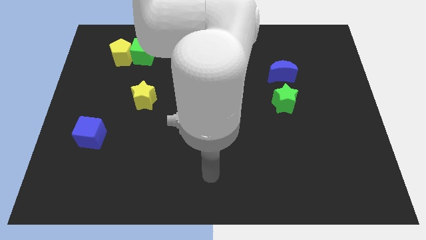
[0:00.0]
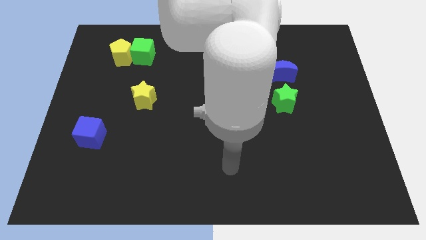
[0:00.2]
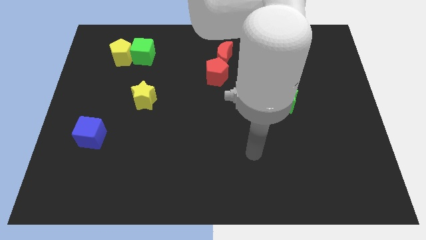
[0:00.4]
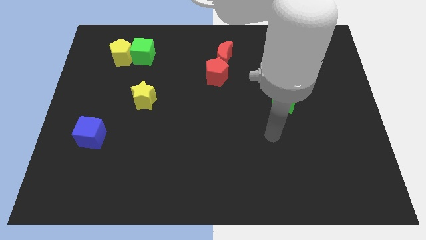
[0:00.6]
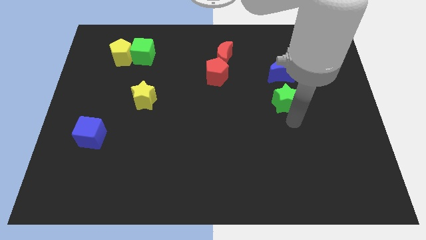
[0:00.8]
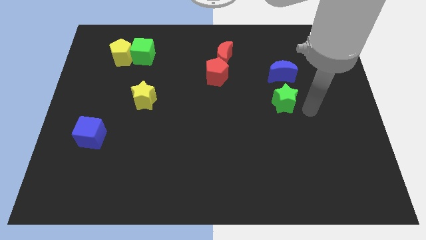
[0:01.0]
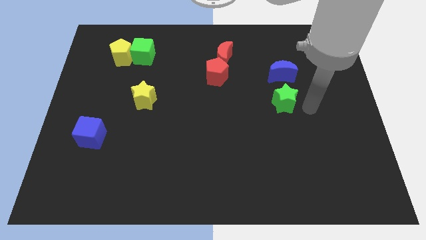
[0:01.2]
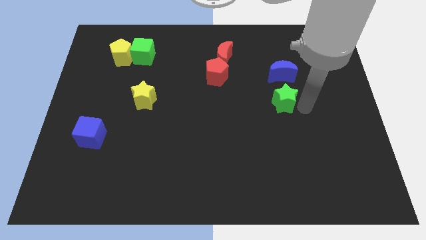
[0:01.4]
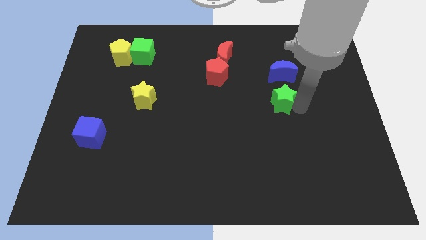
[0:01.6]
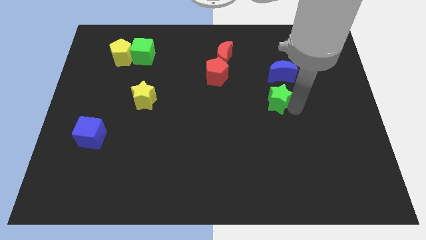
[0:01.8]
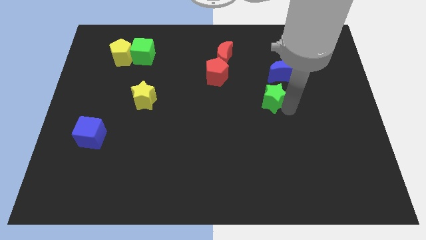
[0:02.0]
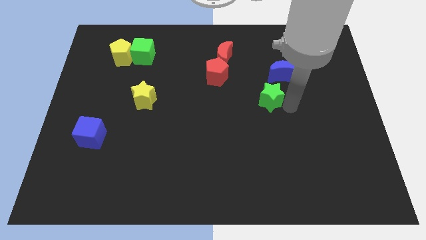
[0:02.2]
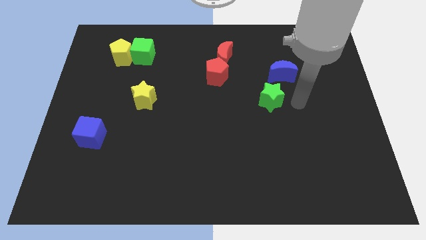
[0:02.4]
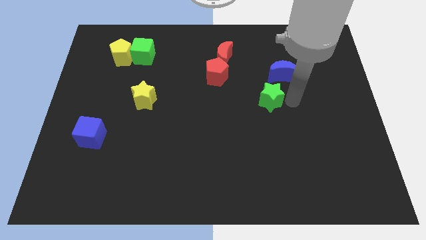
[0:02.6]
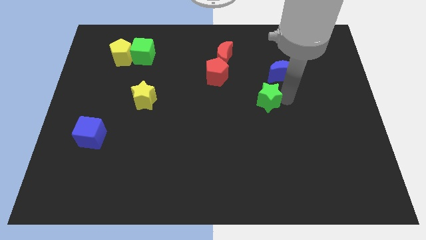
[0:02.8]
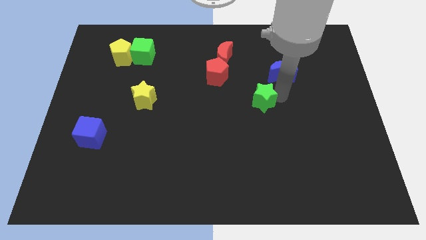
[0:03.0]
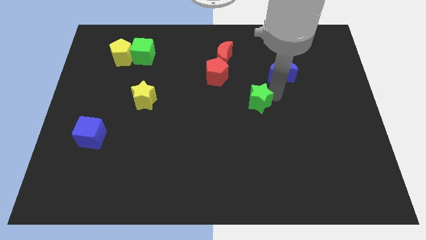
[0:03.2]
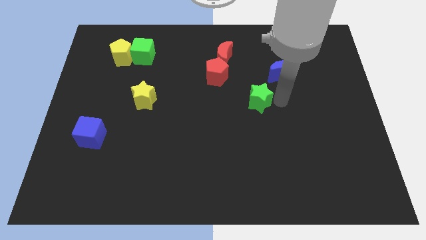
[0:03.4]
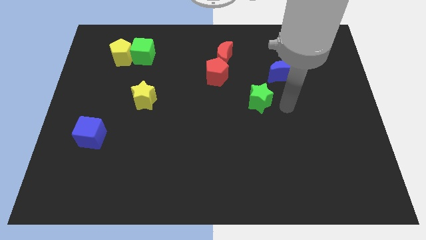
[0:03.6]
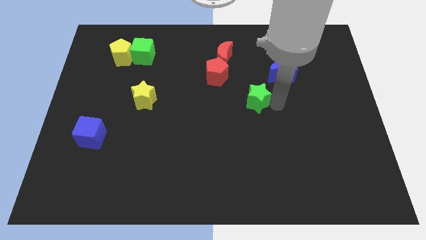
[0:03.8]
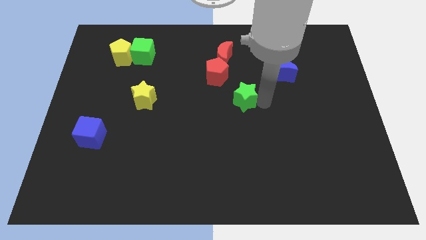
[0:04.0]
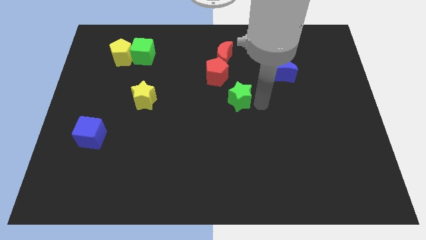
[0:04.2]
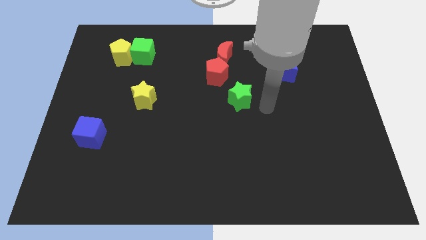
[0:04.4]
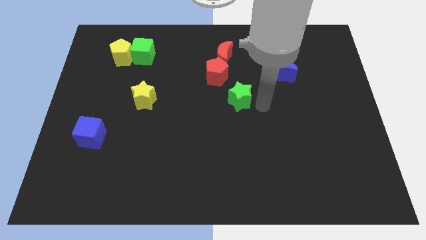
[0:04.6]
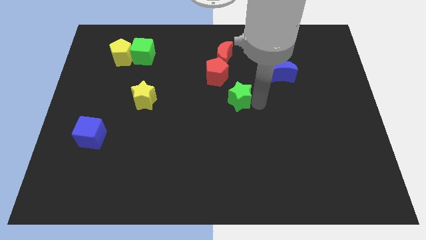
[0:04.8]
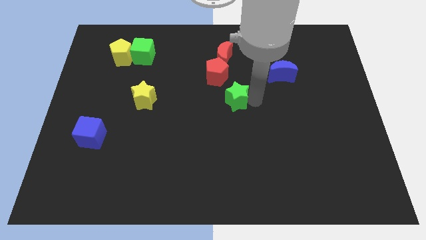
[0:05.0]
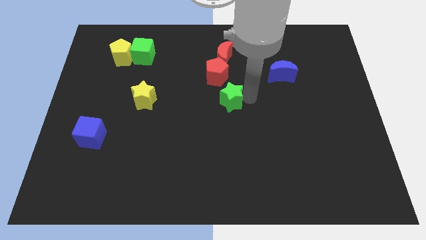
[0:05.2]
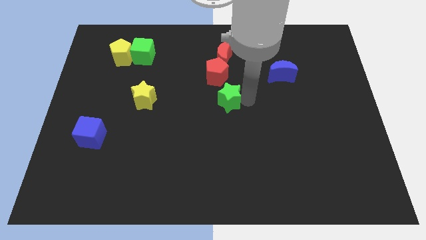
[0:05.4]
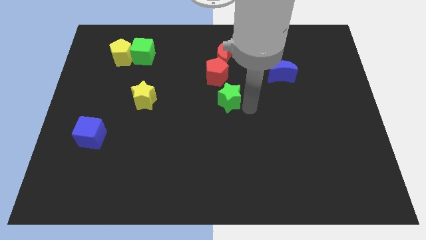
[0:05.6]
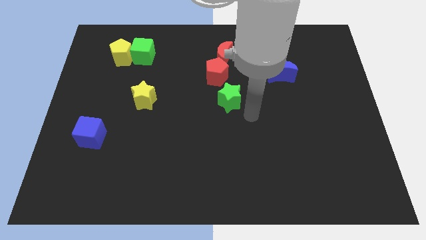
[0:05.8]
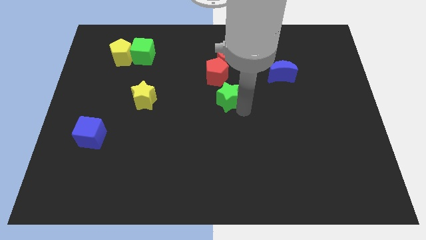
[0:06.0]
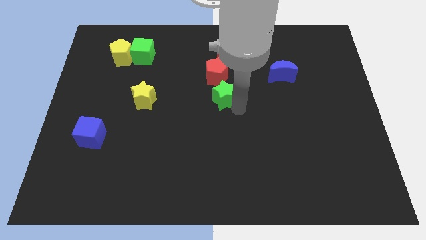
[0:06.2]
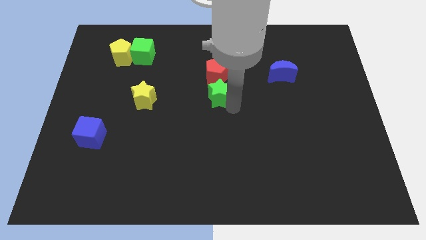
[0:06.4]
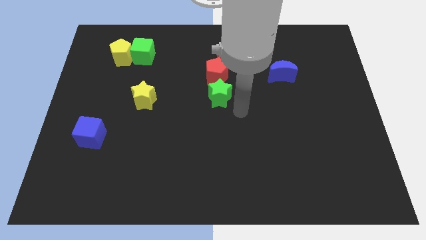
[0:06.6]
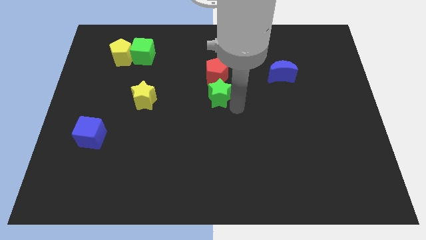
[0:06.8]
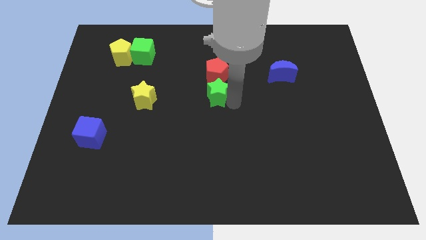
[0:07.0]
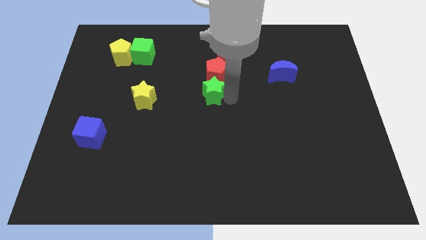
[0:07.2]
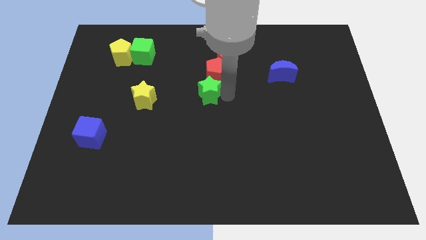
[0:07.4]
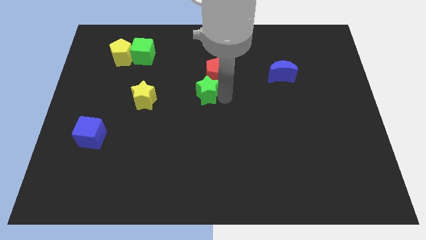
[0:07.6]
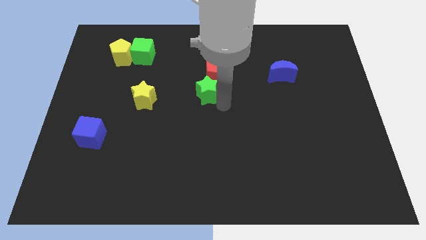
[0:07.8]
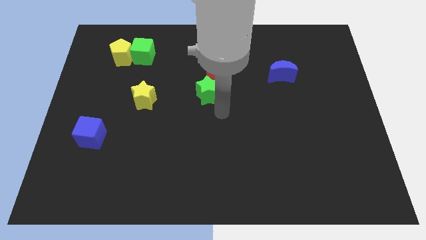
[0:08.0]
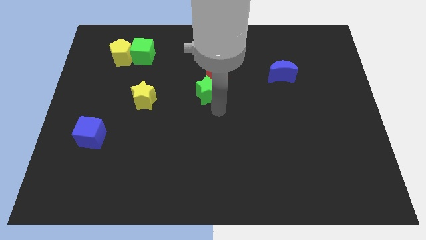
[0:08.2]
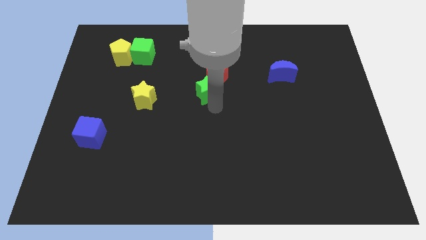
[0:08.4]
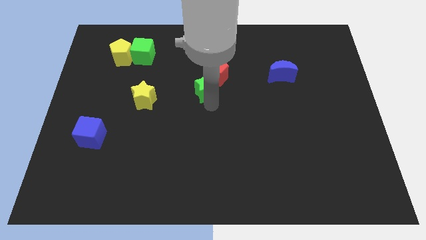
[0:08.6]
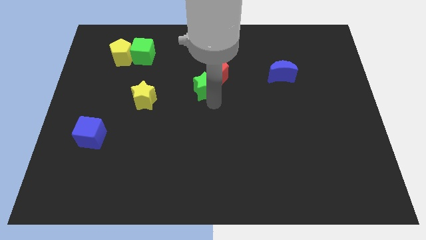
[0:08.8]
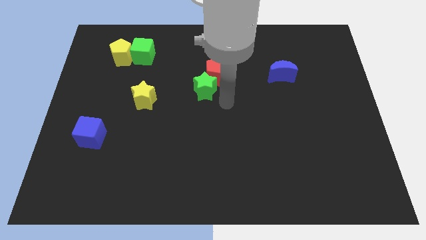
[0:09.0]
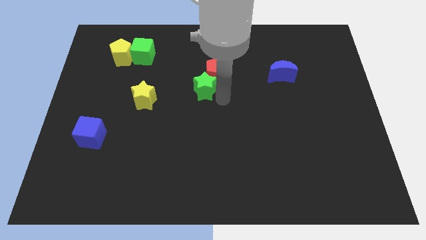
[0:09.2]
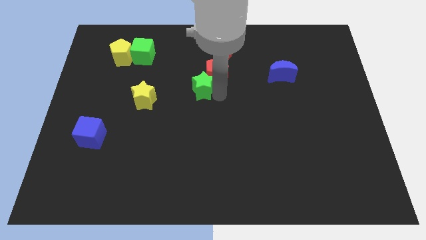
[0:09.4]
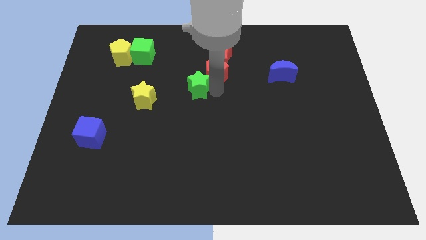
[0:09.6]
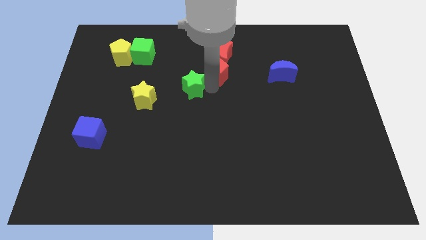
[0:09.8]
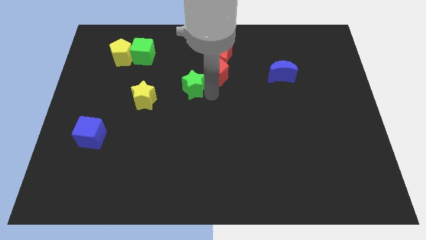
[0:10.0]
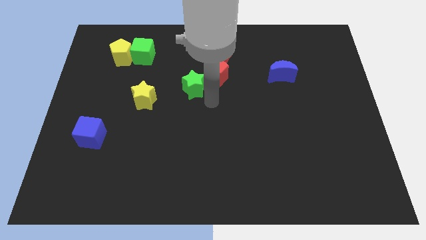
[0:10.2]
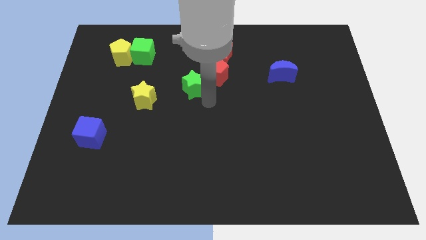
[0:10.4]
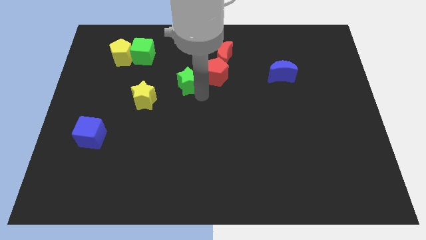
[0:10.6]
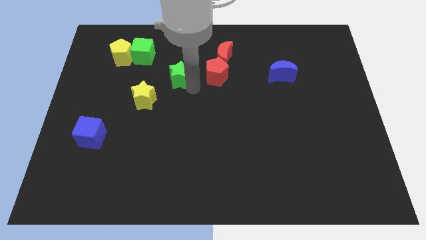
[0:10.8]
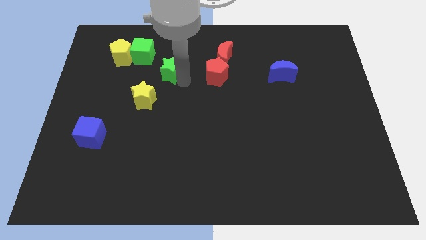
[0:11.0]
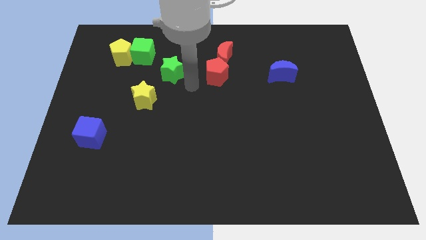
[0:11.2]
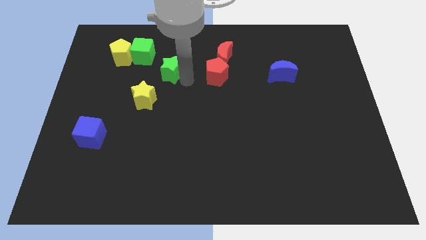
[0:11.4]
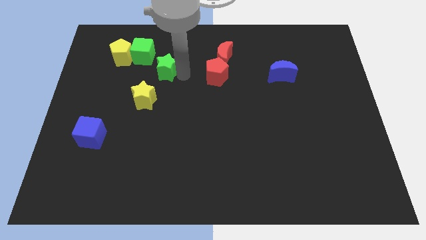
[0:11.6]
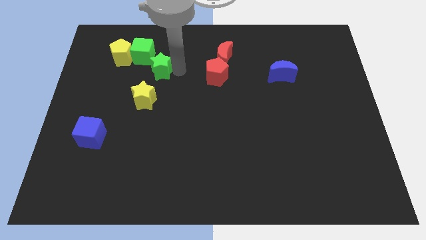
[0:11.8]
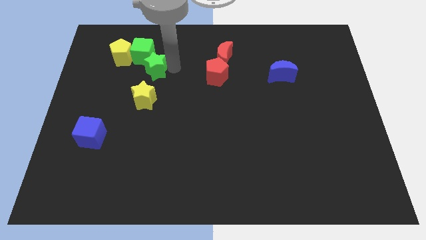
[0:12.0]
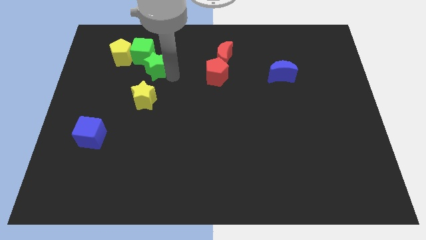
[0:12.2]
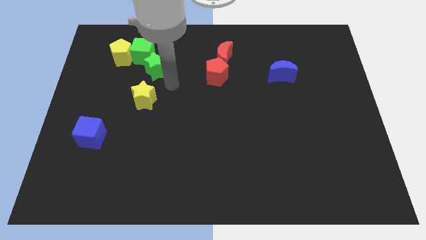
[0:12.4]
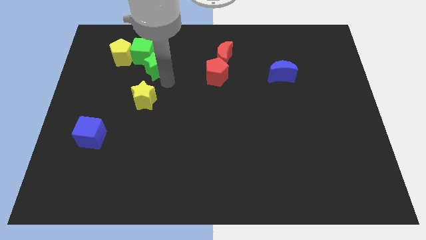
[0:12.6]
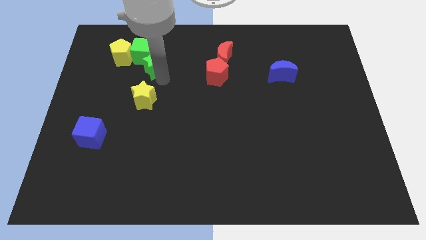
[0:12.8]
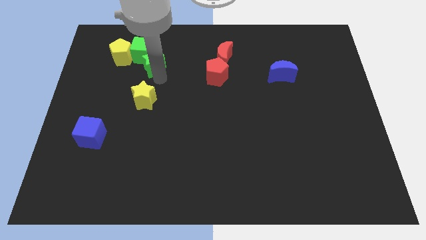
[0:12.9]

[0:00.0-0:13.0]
move the green star next to the green cube

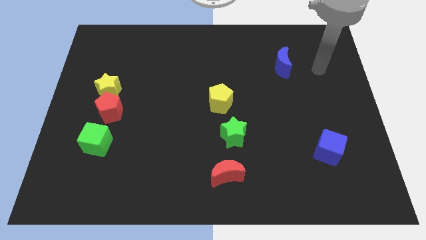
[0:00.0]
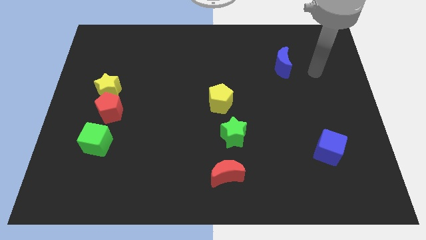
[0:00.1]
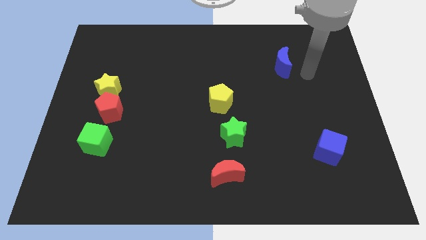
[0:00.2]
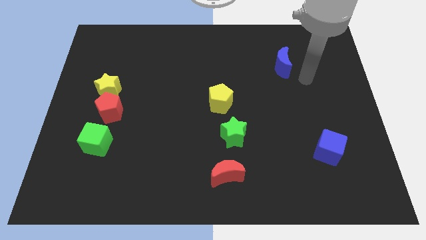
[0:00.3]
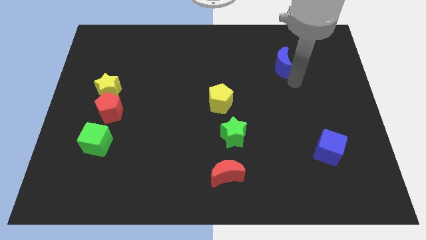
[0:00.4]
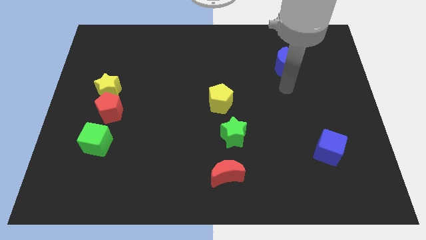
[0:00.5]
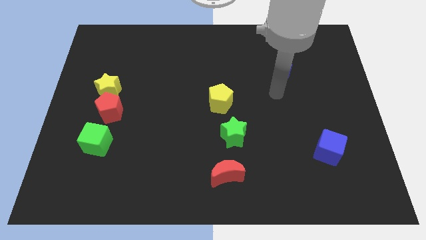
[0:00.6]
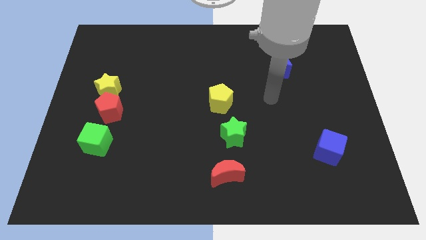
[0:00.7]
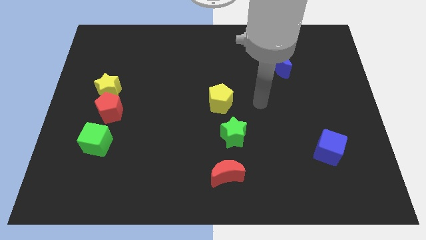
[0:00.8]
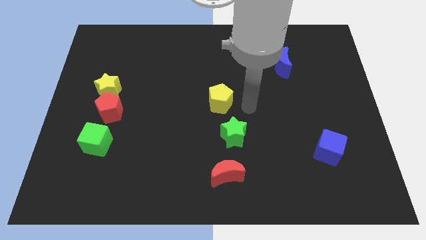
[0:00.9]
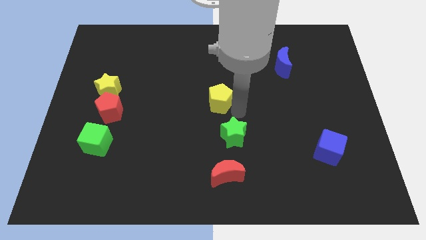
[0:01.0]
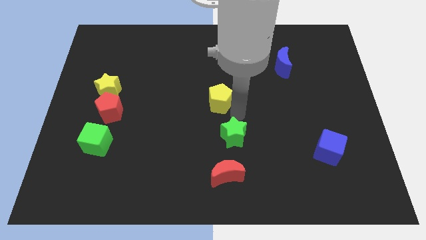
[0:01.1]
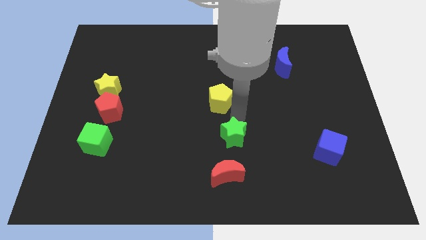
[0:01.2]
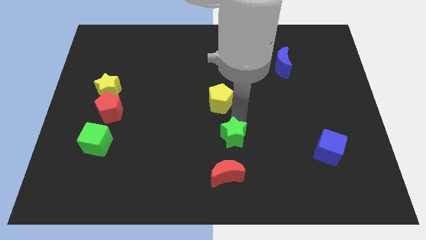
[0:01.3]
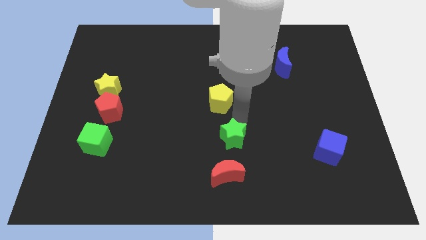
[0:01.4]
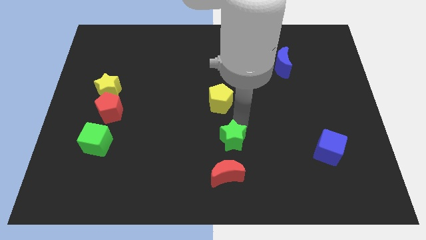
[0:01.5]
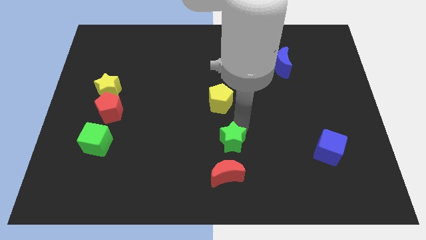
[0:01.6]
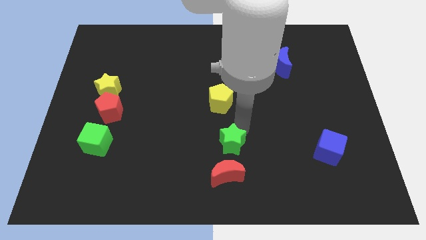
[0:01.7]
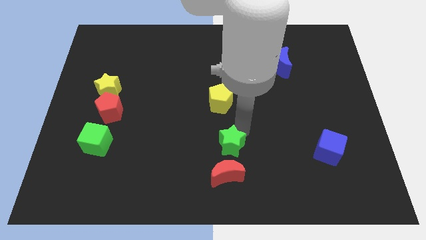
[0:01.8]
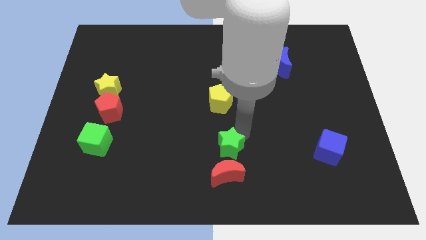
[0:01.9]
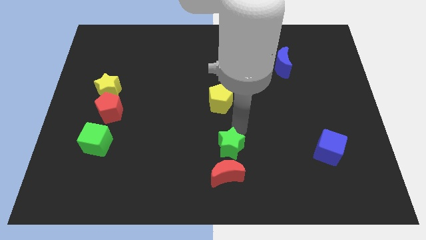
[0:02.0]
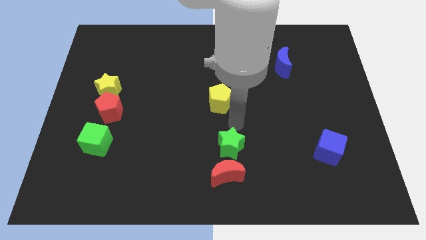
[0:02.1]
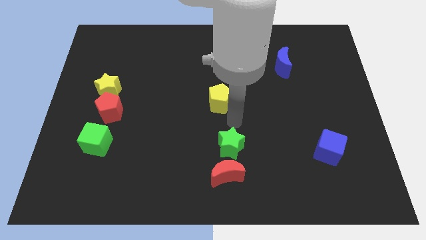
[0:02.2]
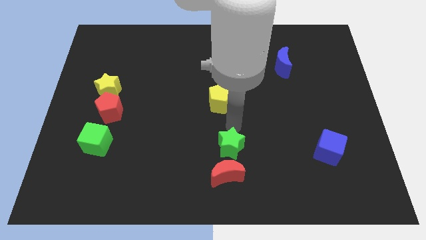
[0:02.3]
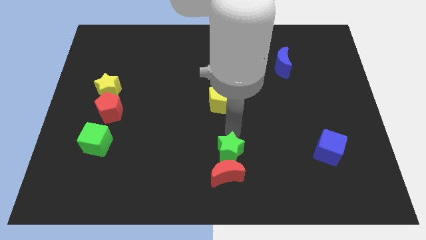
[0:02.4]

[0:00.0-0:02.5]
put the green star to the red moon
